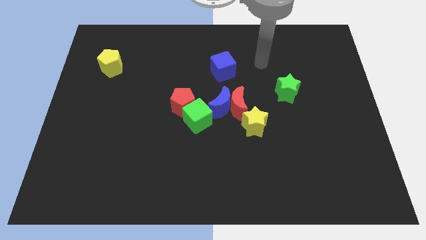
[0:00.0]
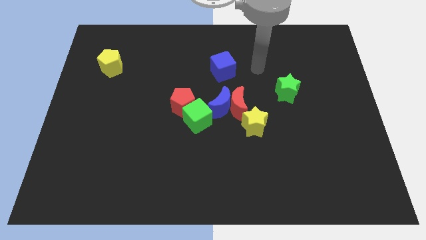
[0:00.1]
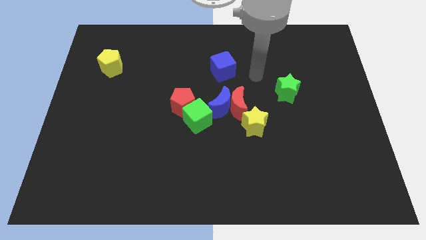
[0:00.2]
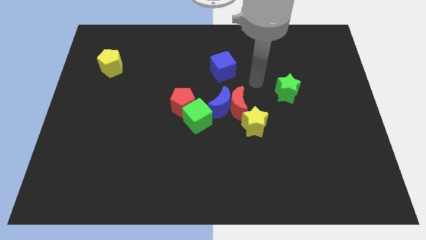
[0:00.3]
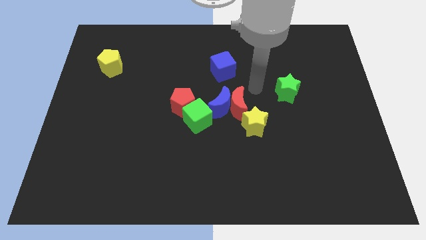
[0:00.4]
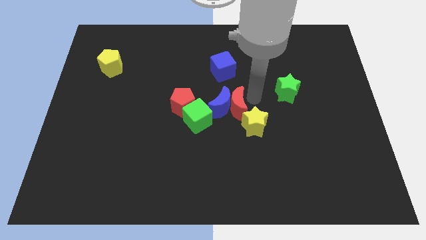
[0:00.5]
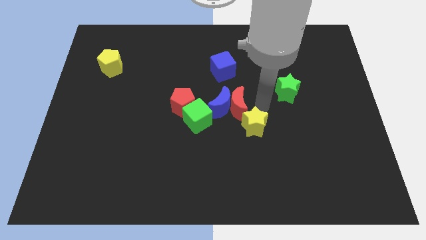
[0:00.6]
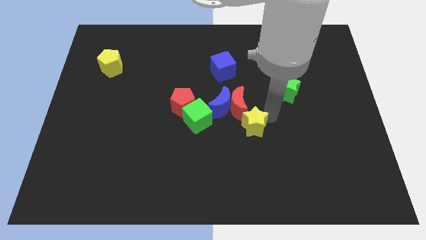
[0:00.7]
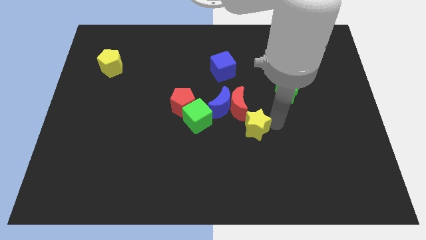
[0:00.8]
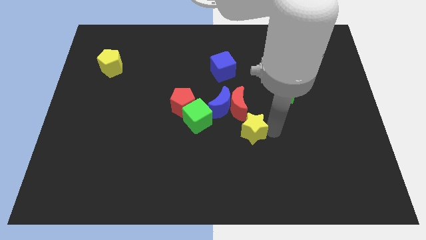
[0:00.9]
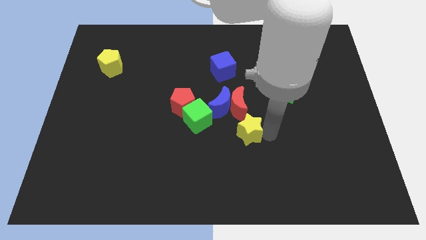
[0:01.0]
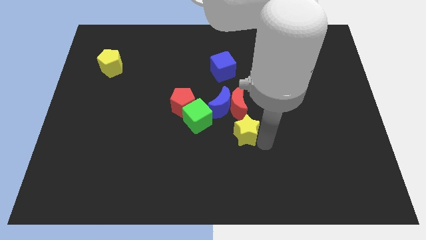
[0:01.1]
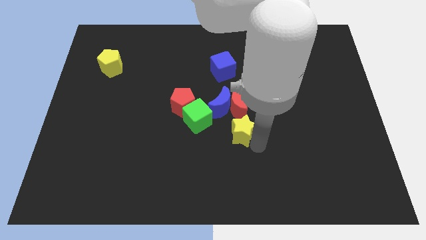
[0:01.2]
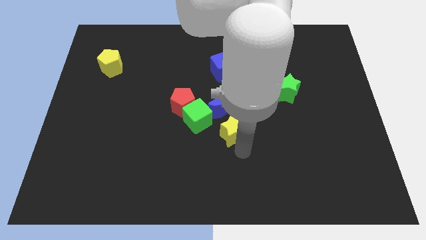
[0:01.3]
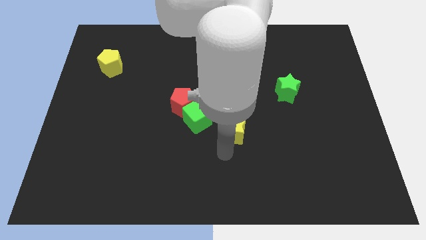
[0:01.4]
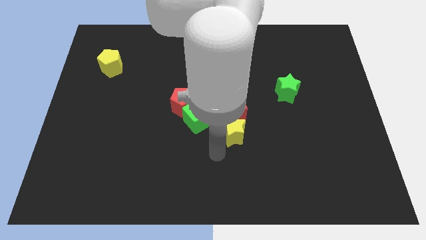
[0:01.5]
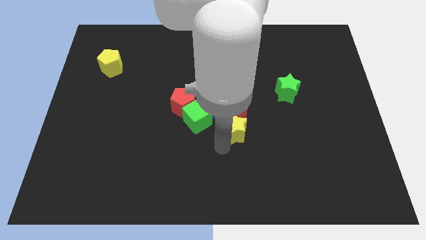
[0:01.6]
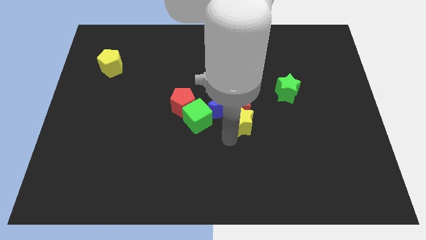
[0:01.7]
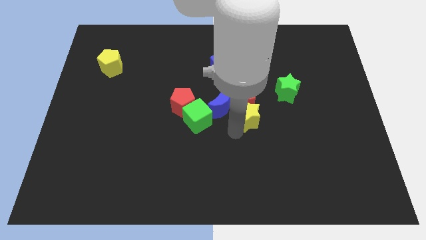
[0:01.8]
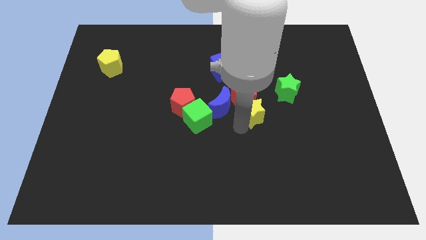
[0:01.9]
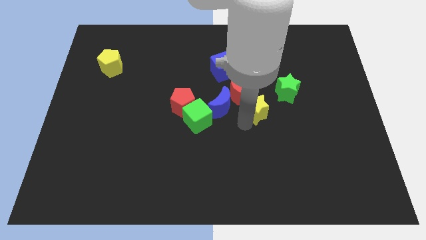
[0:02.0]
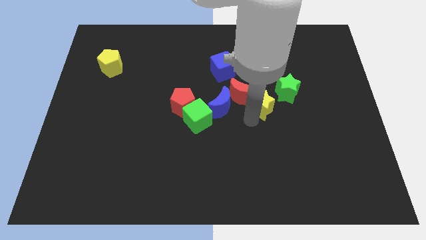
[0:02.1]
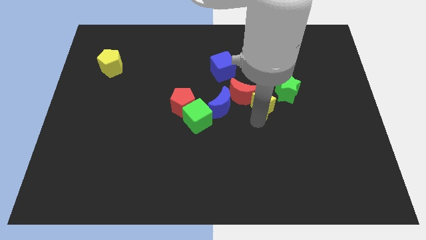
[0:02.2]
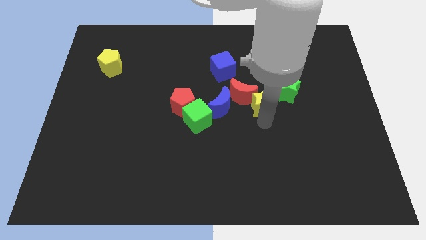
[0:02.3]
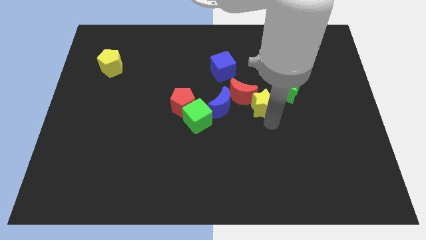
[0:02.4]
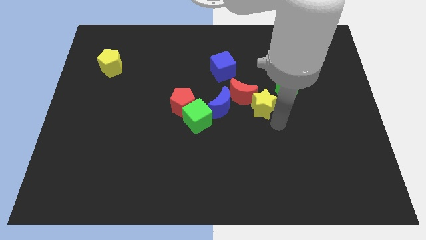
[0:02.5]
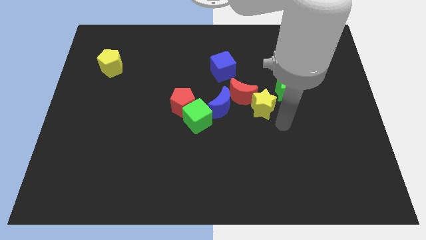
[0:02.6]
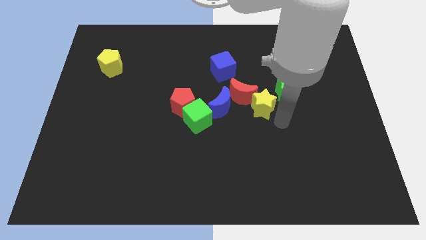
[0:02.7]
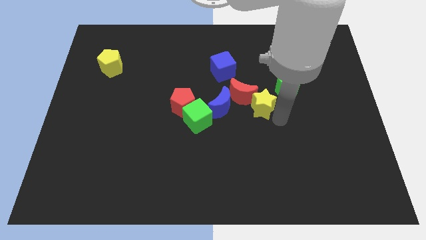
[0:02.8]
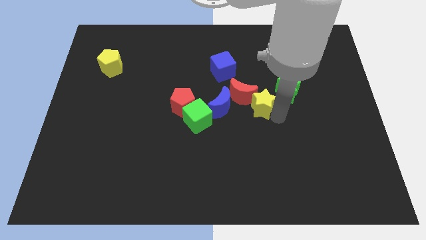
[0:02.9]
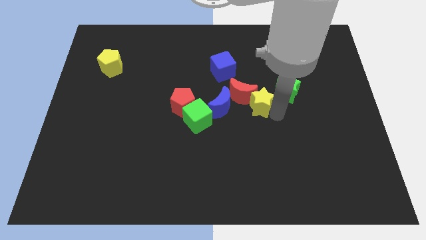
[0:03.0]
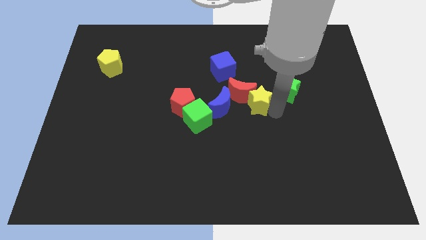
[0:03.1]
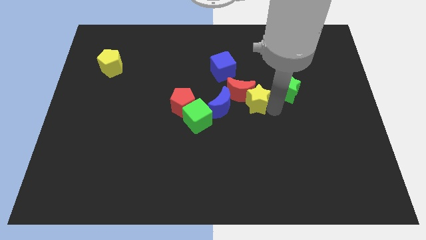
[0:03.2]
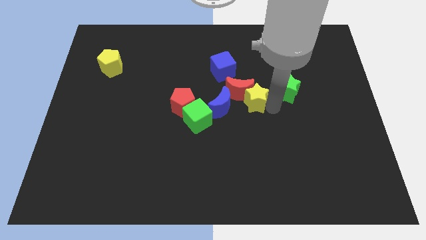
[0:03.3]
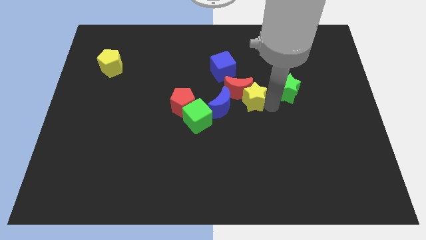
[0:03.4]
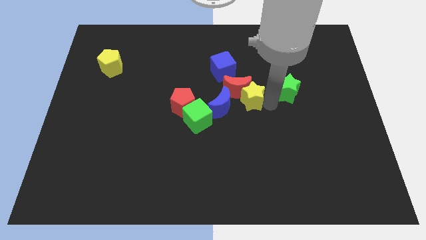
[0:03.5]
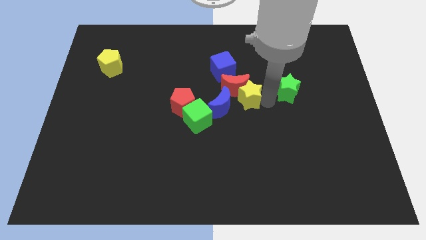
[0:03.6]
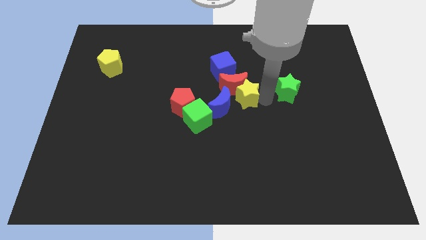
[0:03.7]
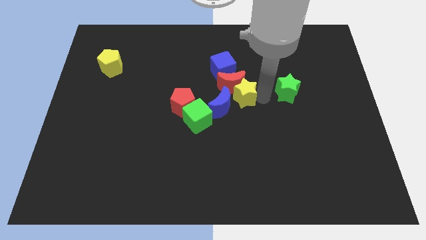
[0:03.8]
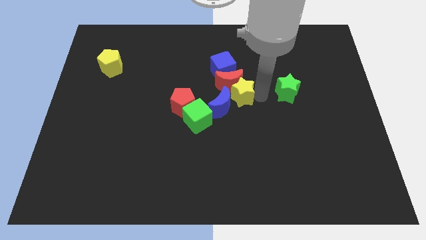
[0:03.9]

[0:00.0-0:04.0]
slide the yellow star a bit upwards and then left

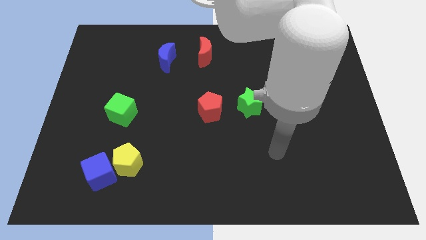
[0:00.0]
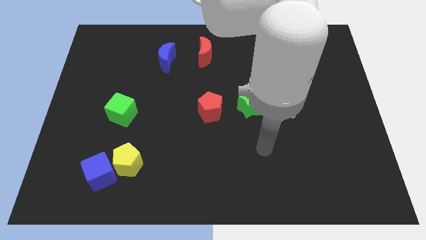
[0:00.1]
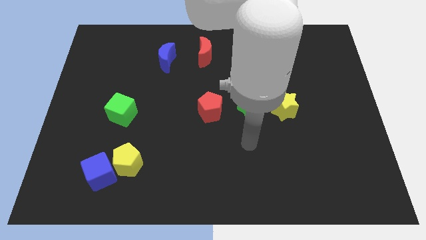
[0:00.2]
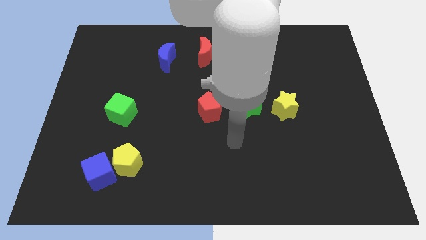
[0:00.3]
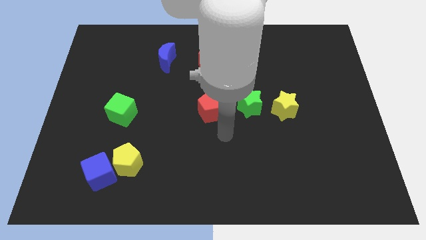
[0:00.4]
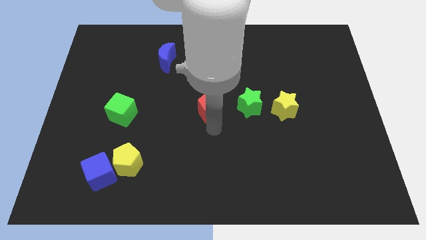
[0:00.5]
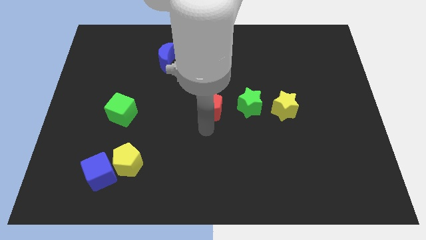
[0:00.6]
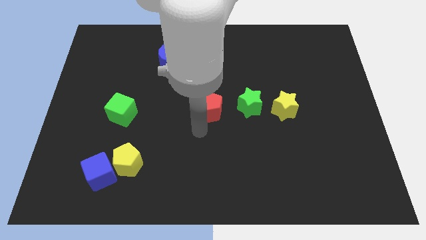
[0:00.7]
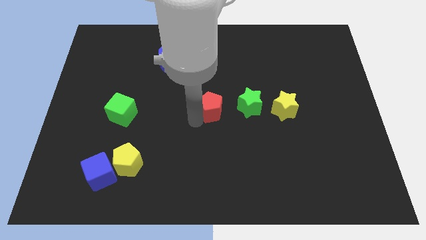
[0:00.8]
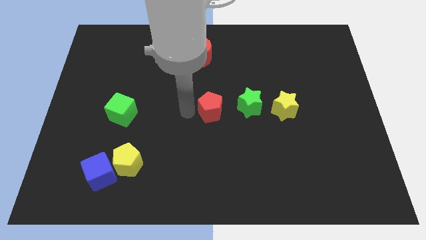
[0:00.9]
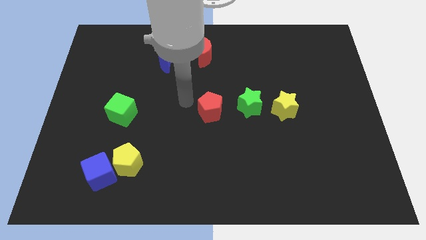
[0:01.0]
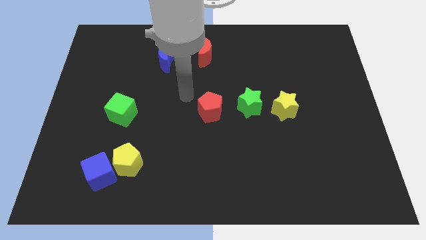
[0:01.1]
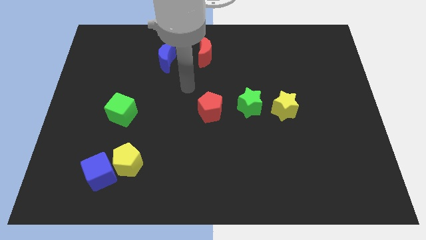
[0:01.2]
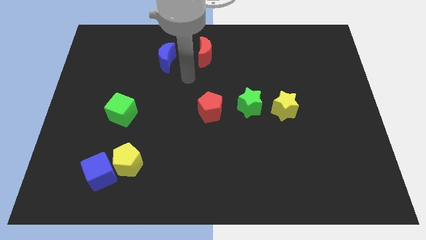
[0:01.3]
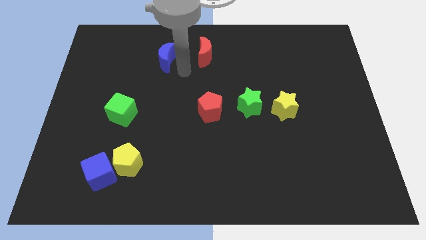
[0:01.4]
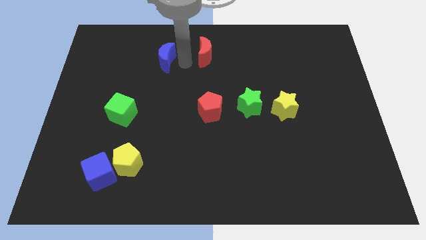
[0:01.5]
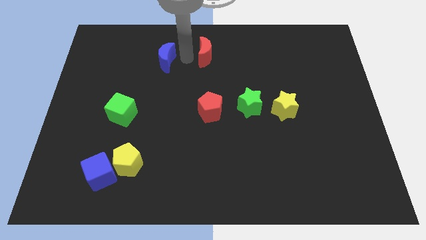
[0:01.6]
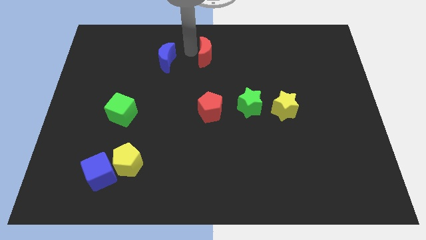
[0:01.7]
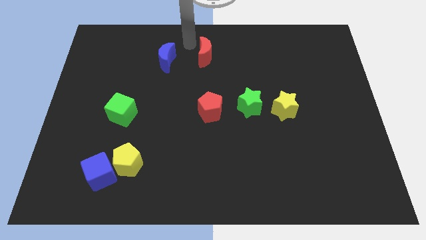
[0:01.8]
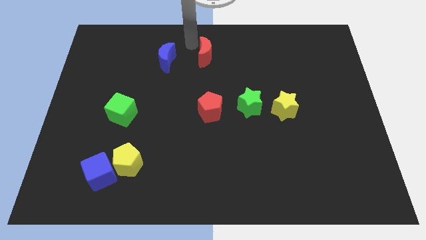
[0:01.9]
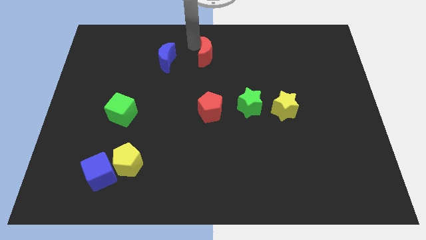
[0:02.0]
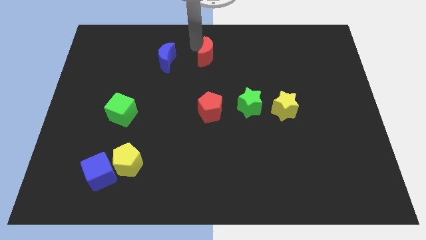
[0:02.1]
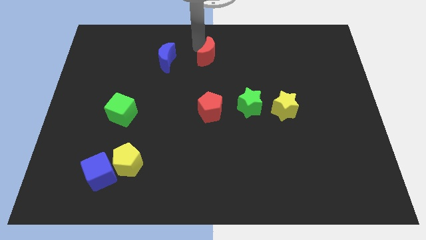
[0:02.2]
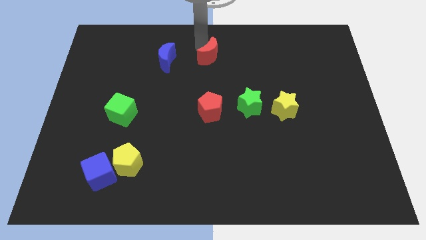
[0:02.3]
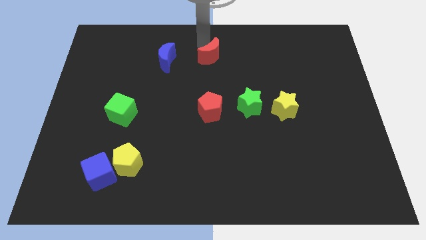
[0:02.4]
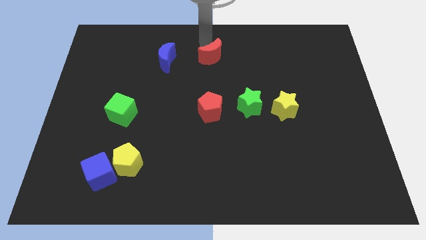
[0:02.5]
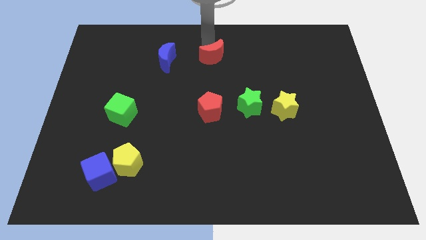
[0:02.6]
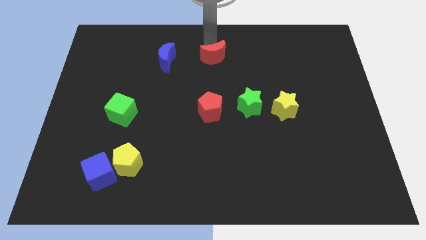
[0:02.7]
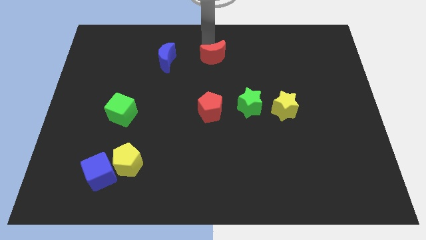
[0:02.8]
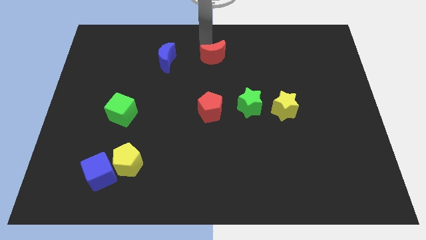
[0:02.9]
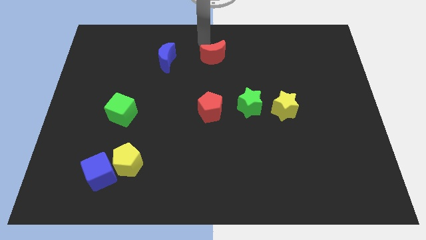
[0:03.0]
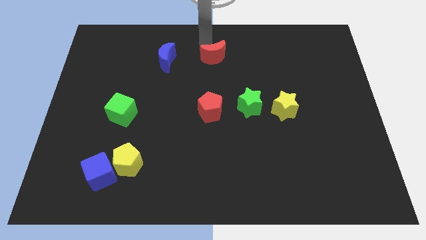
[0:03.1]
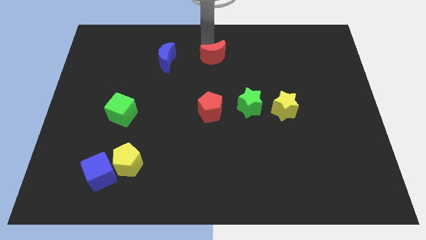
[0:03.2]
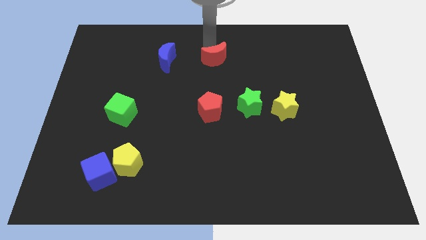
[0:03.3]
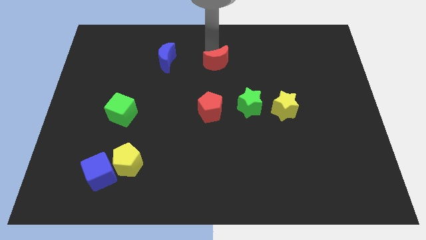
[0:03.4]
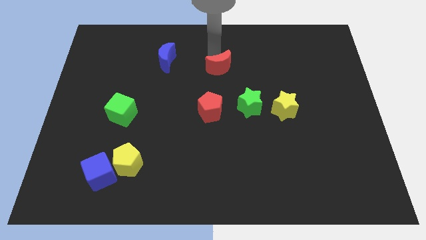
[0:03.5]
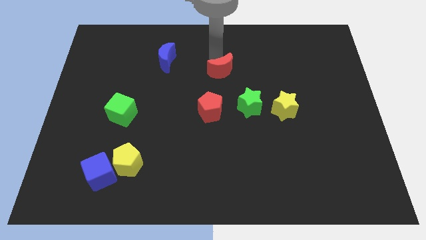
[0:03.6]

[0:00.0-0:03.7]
slide the red moon slightly down and then right

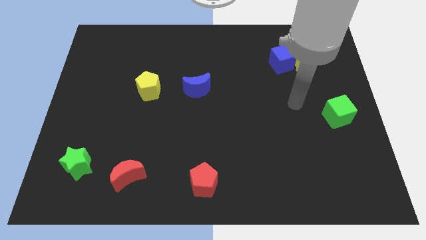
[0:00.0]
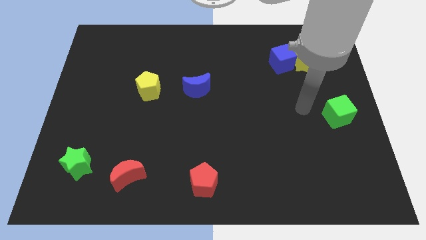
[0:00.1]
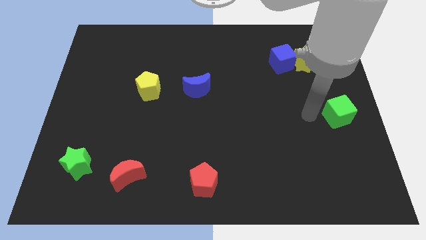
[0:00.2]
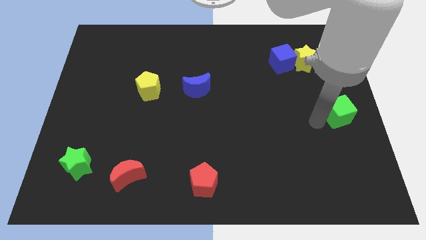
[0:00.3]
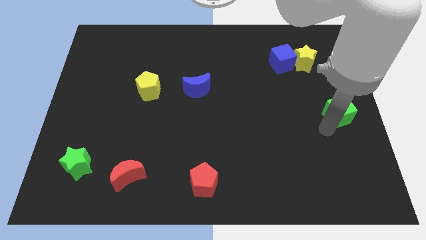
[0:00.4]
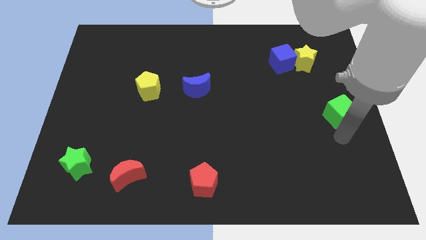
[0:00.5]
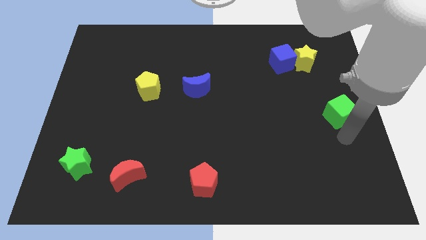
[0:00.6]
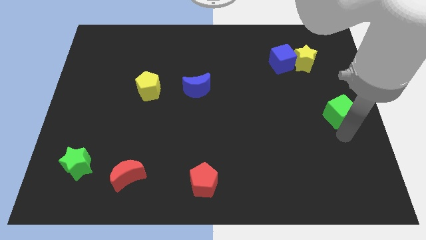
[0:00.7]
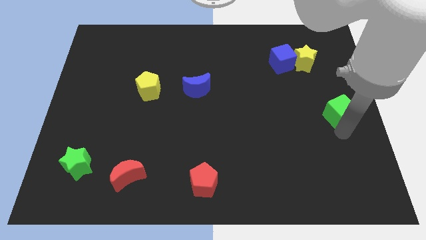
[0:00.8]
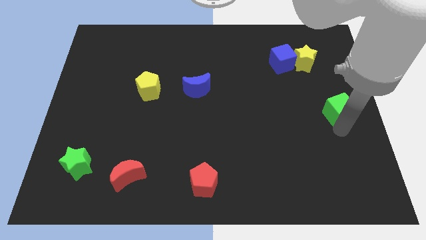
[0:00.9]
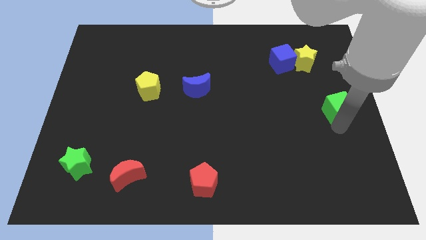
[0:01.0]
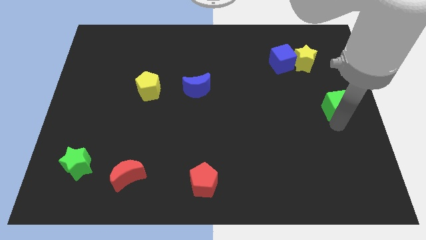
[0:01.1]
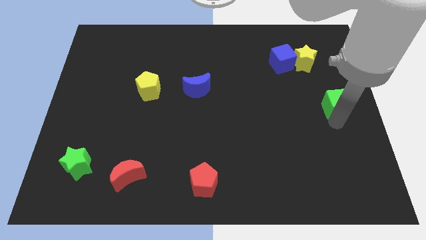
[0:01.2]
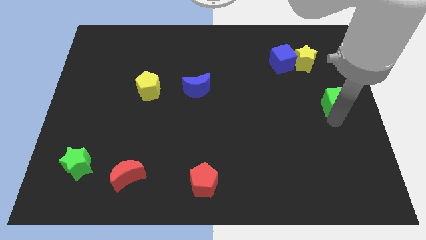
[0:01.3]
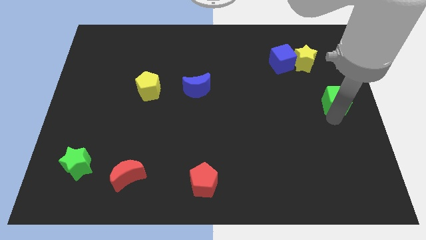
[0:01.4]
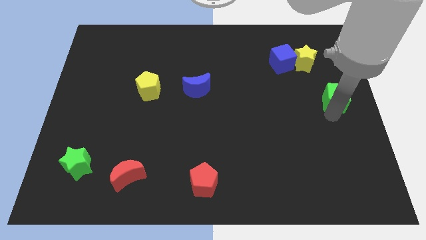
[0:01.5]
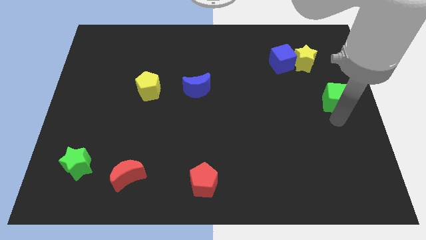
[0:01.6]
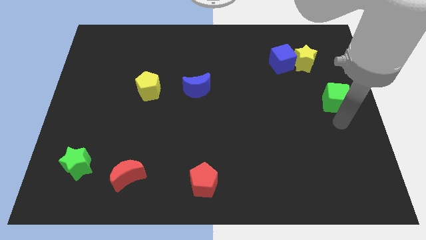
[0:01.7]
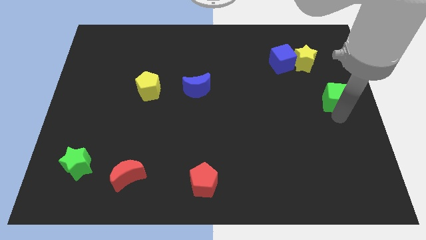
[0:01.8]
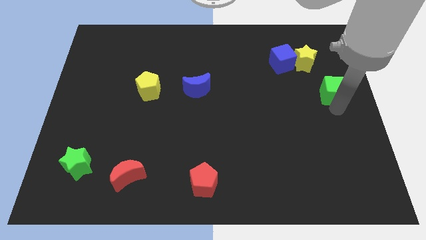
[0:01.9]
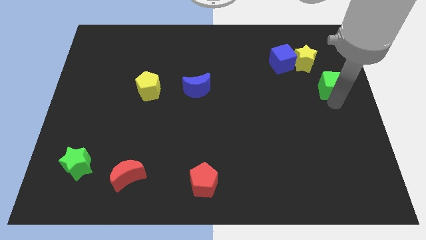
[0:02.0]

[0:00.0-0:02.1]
push the green cube up slightly
